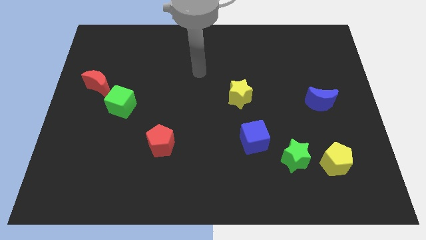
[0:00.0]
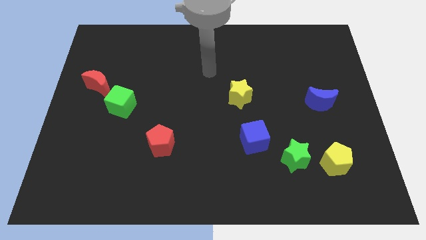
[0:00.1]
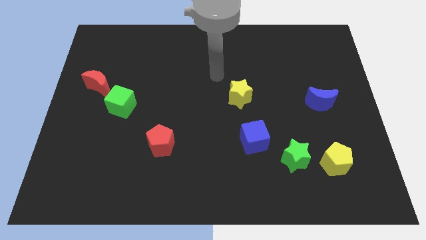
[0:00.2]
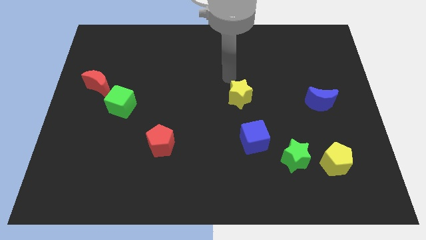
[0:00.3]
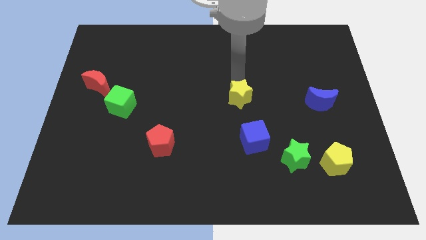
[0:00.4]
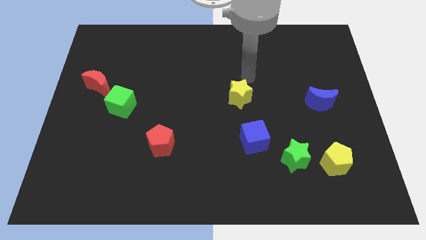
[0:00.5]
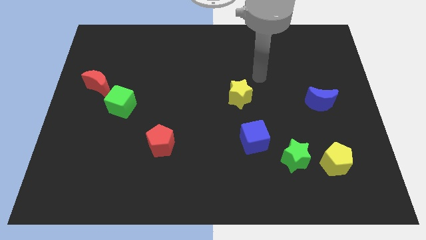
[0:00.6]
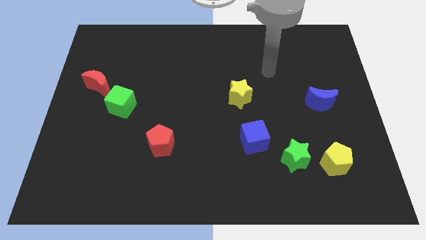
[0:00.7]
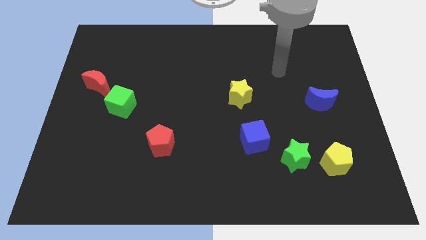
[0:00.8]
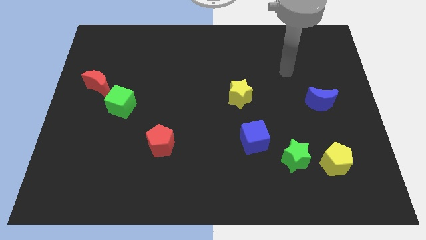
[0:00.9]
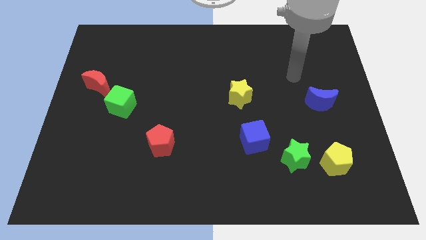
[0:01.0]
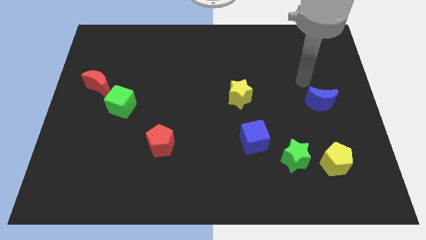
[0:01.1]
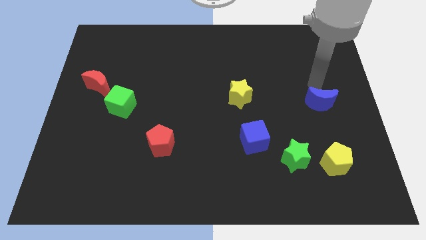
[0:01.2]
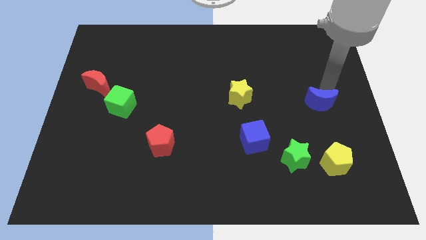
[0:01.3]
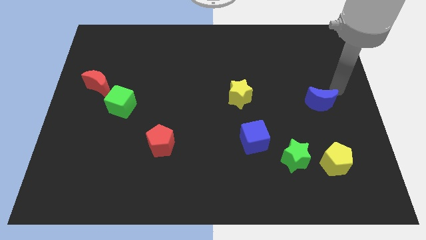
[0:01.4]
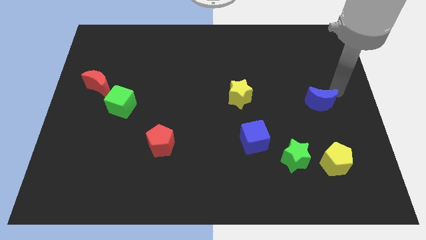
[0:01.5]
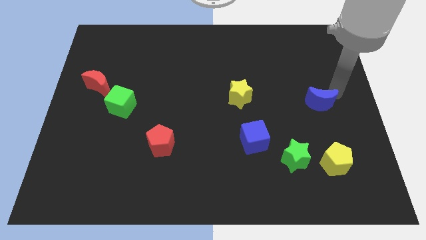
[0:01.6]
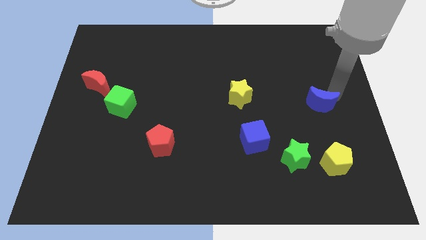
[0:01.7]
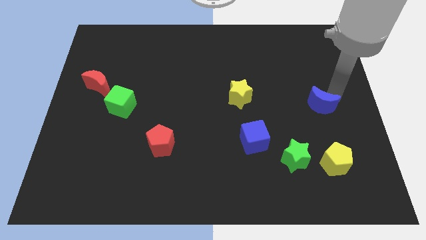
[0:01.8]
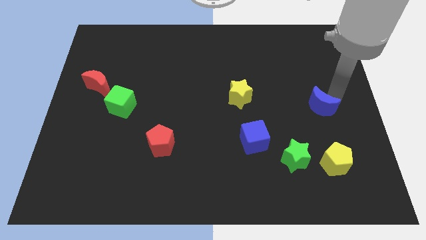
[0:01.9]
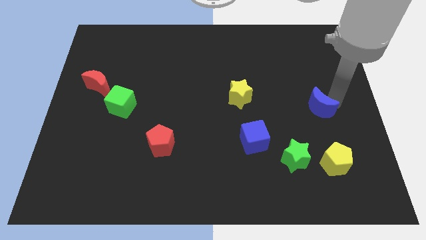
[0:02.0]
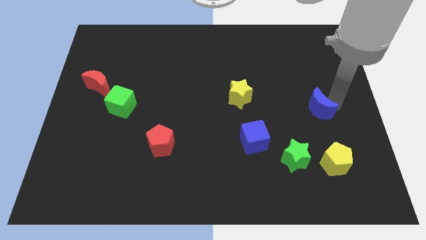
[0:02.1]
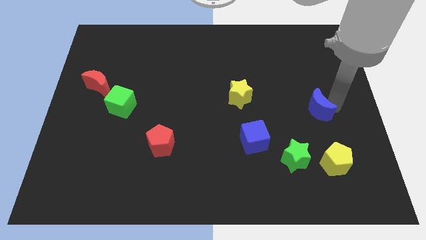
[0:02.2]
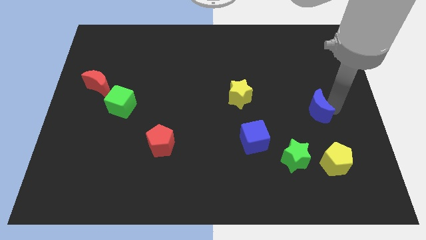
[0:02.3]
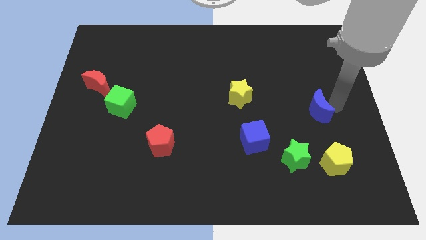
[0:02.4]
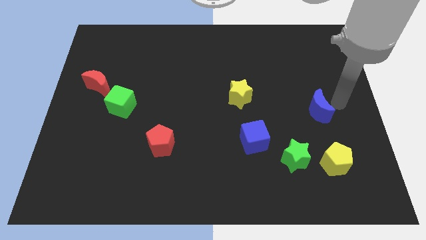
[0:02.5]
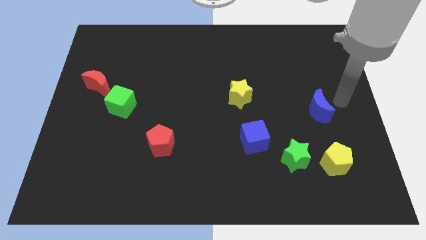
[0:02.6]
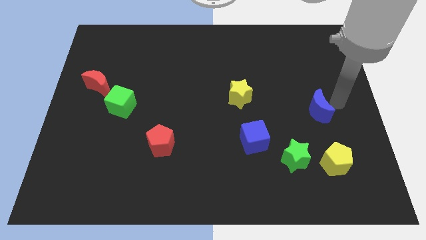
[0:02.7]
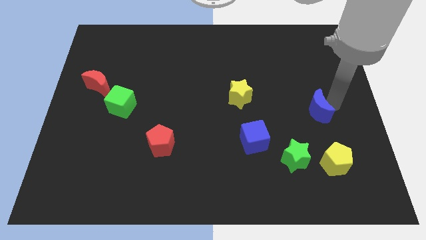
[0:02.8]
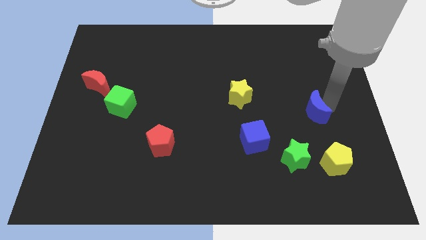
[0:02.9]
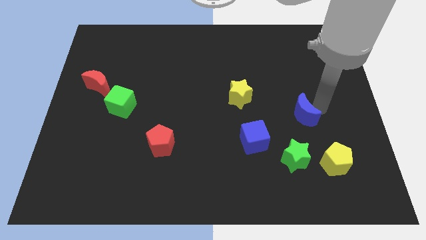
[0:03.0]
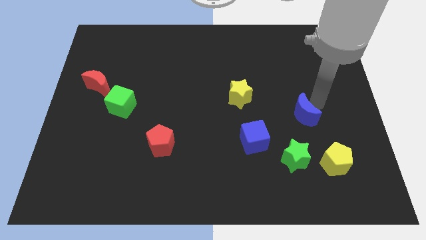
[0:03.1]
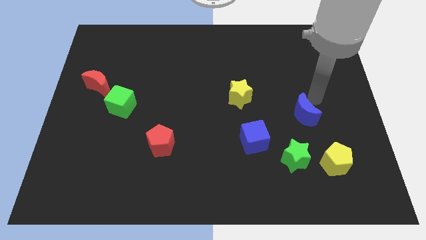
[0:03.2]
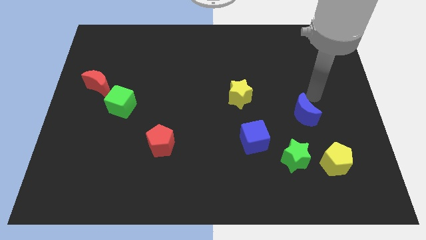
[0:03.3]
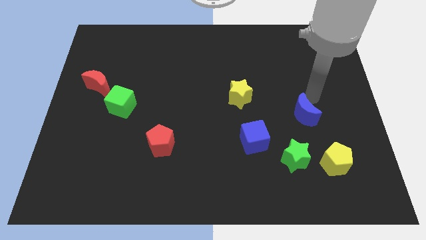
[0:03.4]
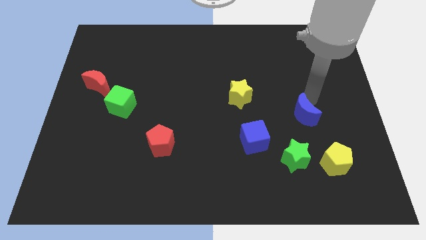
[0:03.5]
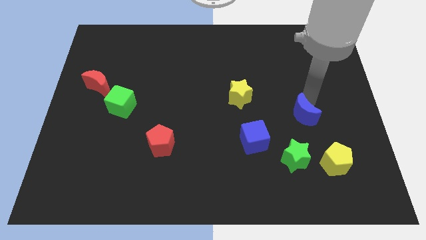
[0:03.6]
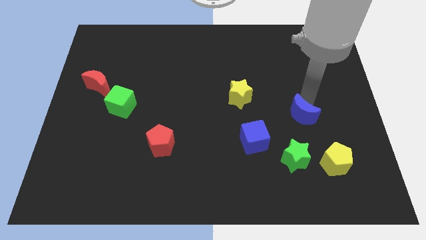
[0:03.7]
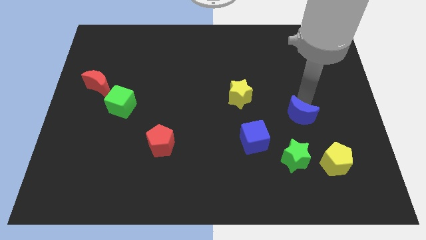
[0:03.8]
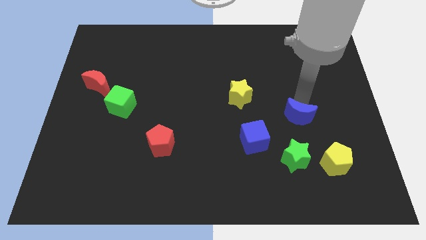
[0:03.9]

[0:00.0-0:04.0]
move the blue moon slightly diagonally down and to the left

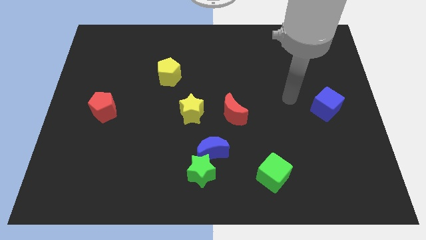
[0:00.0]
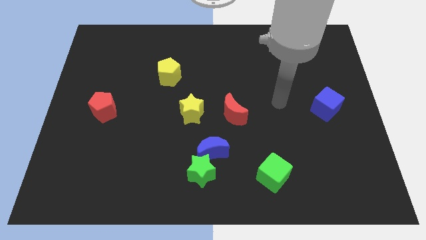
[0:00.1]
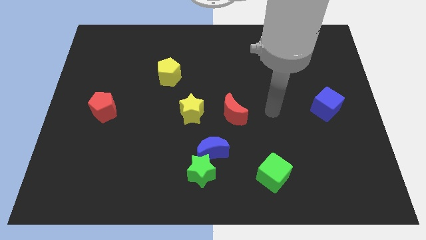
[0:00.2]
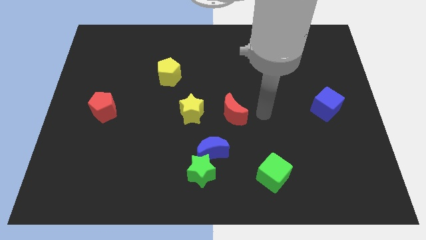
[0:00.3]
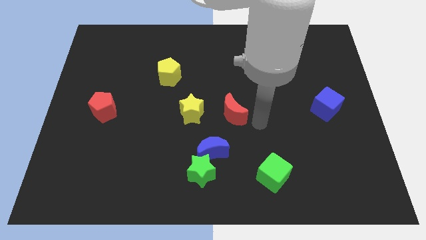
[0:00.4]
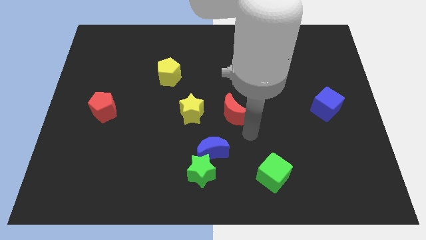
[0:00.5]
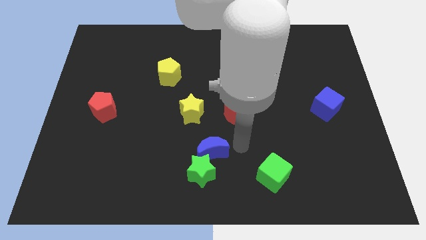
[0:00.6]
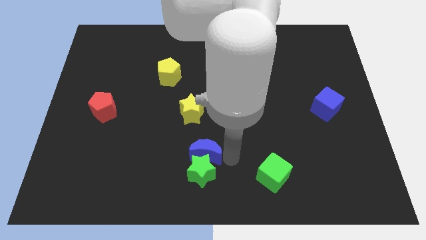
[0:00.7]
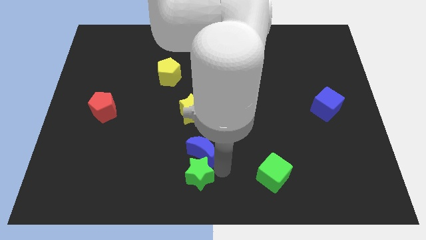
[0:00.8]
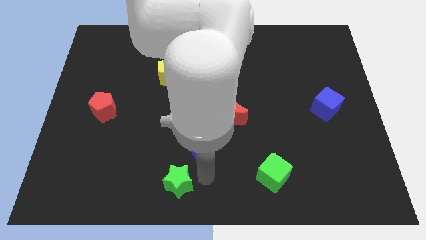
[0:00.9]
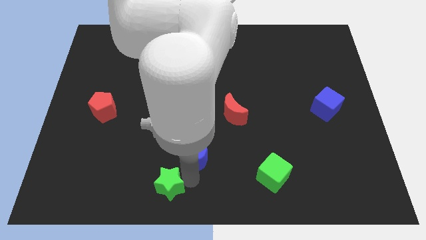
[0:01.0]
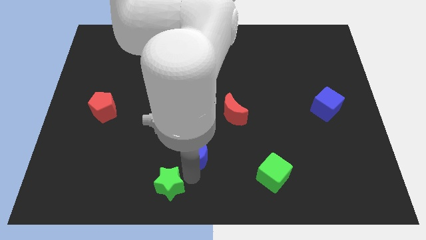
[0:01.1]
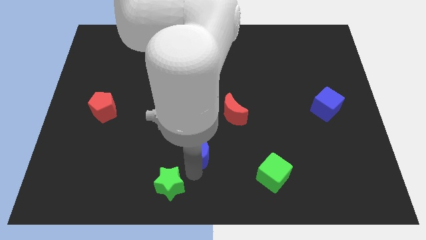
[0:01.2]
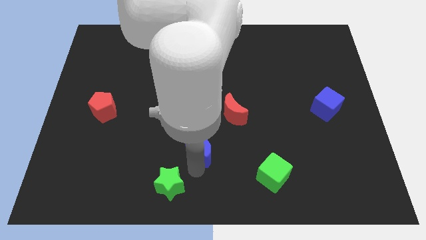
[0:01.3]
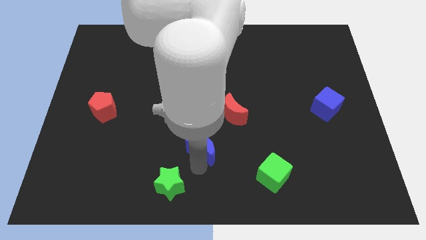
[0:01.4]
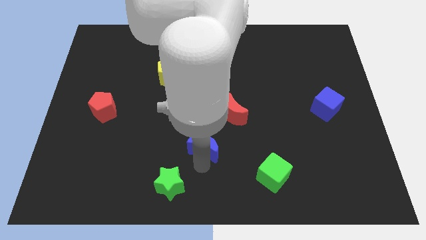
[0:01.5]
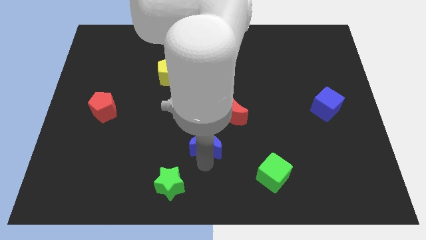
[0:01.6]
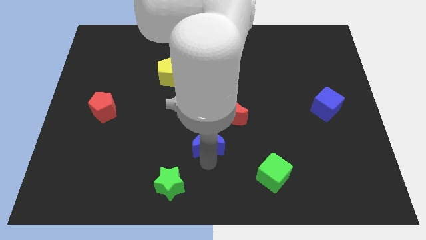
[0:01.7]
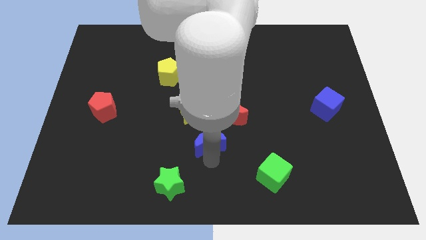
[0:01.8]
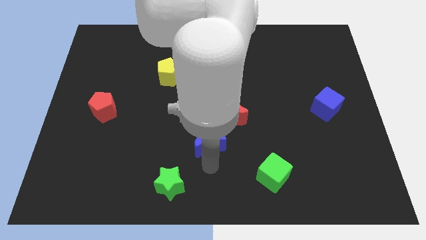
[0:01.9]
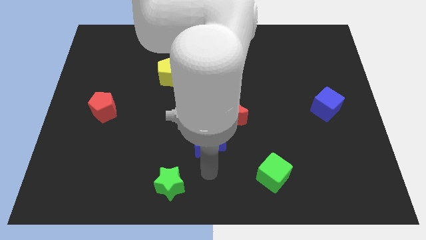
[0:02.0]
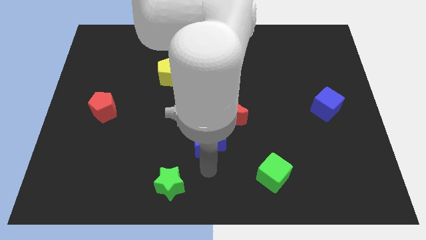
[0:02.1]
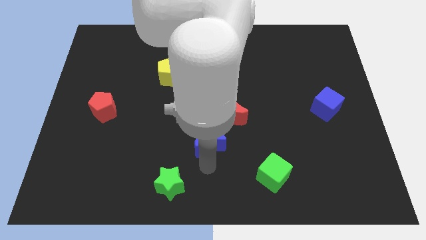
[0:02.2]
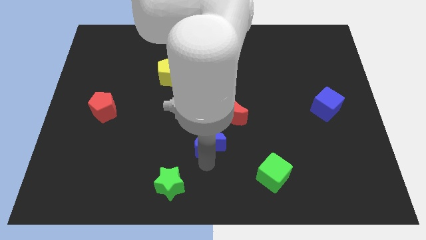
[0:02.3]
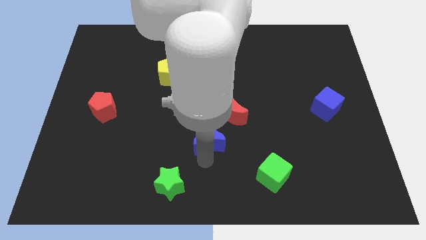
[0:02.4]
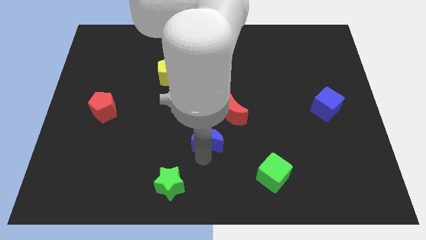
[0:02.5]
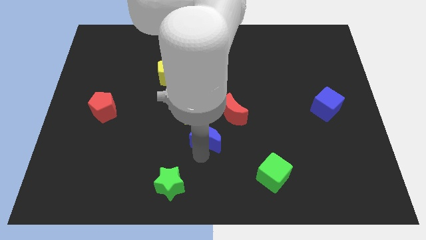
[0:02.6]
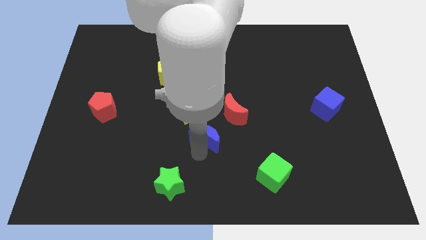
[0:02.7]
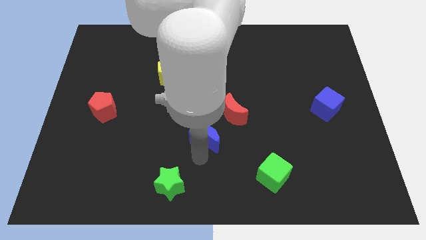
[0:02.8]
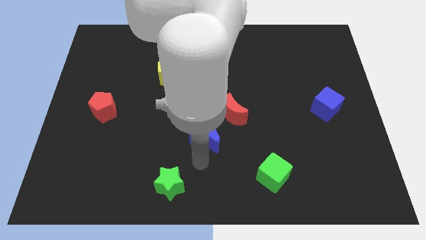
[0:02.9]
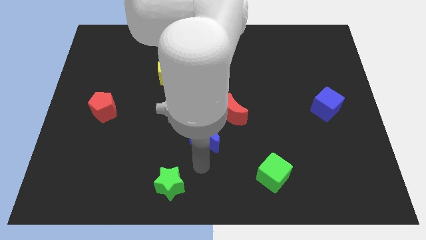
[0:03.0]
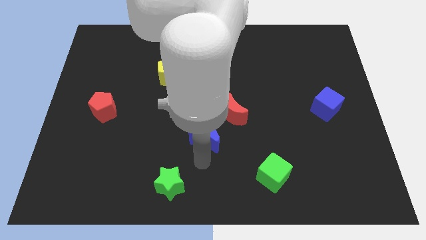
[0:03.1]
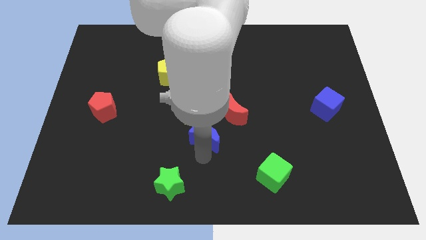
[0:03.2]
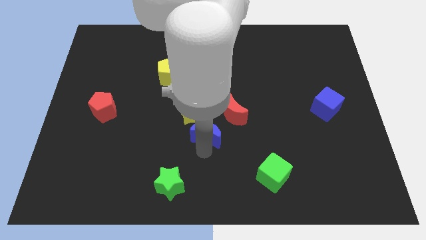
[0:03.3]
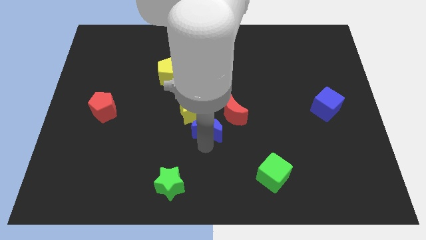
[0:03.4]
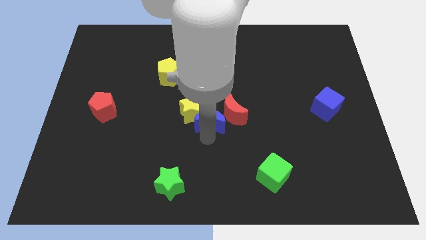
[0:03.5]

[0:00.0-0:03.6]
slide the blue moon a little up

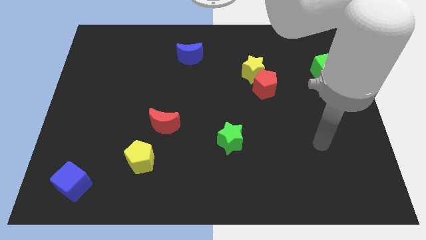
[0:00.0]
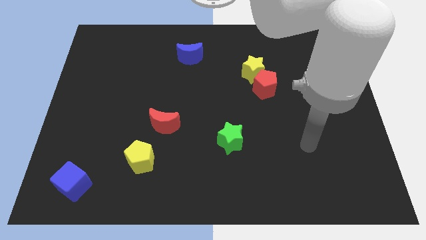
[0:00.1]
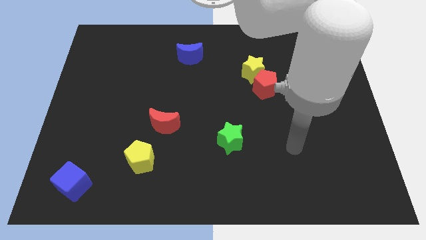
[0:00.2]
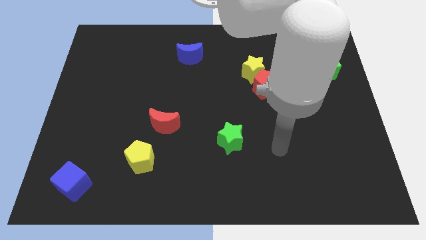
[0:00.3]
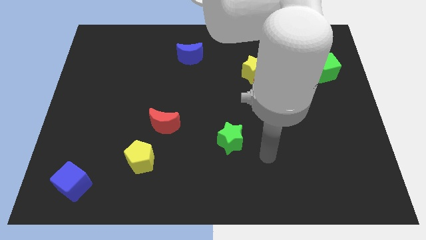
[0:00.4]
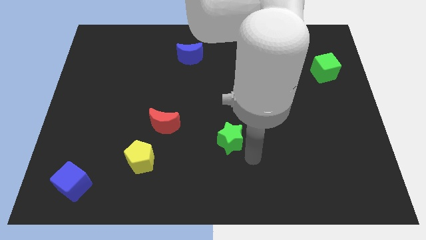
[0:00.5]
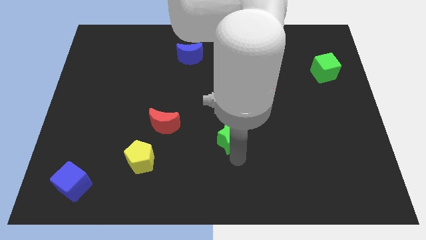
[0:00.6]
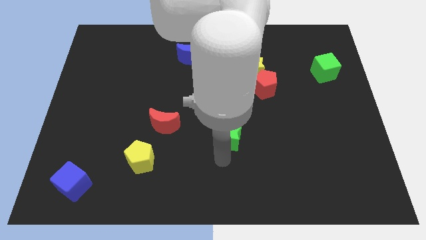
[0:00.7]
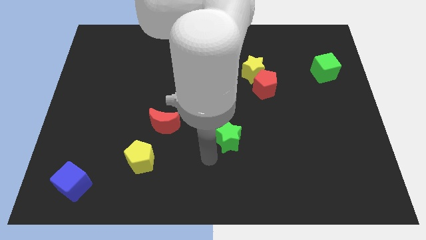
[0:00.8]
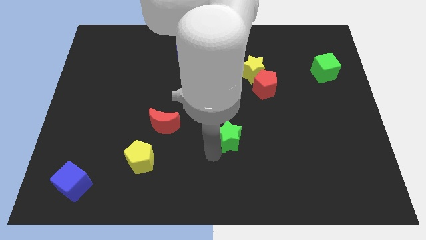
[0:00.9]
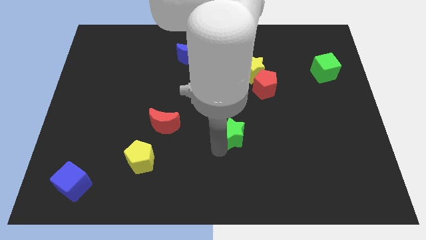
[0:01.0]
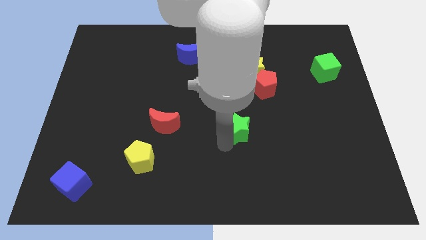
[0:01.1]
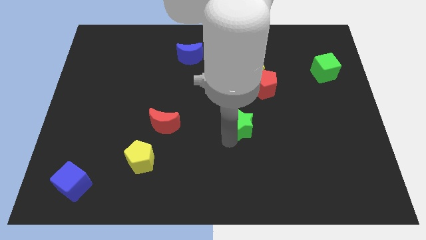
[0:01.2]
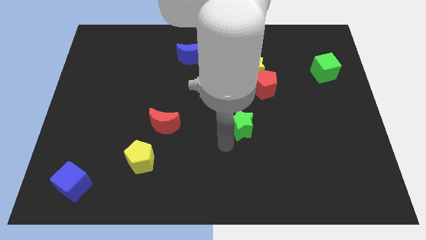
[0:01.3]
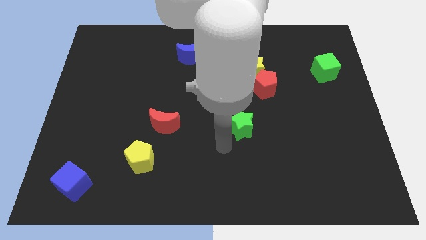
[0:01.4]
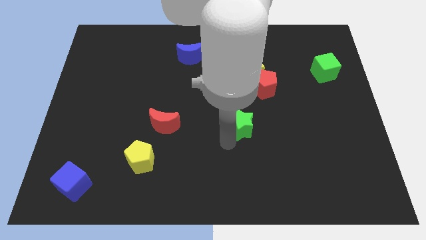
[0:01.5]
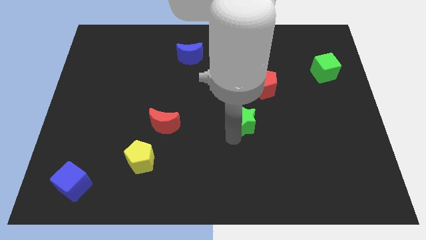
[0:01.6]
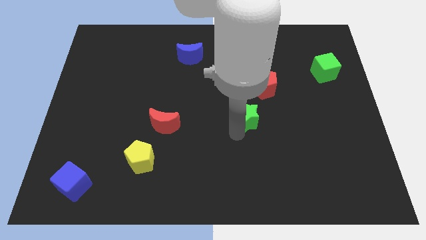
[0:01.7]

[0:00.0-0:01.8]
move the green star upwards and to the right a little
